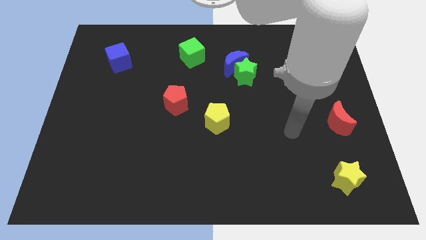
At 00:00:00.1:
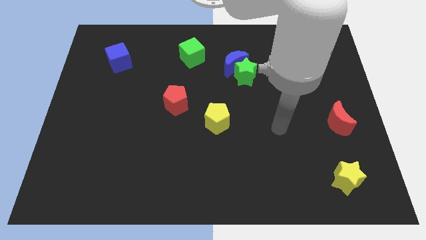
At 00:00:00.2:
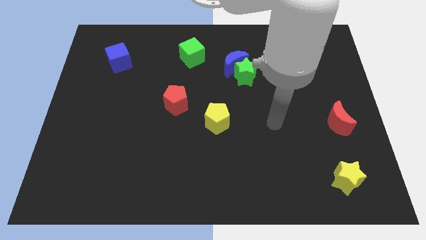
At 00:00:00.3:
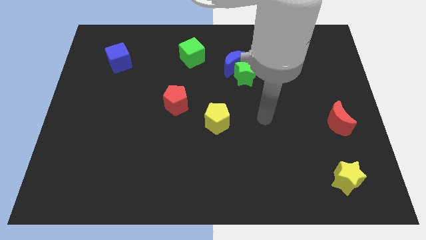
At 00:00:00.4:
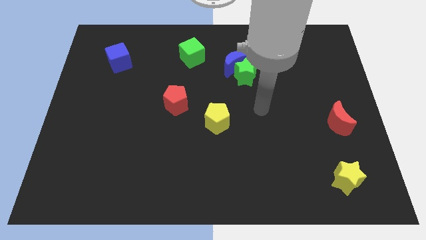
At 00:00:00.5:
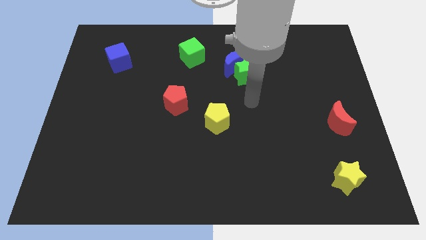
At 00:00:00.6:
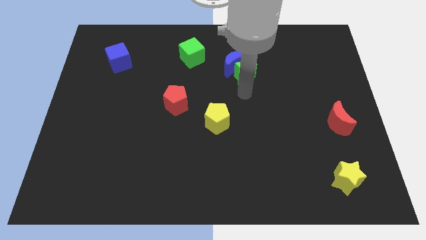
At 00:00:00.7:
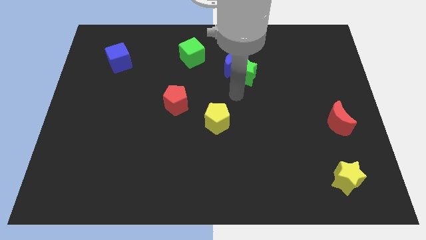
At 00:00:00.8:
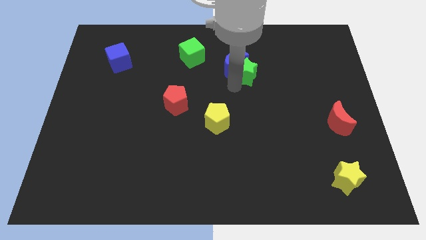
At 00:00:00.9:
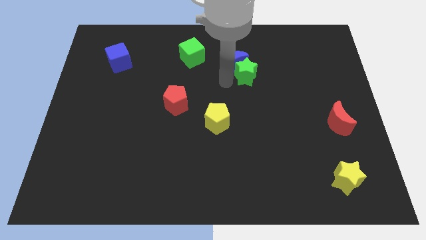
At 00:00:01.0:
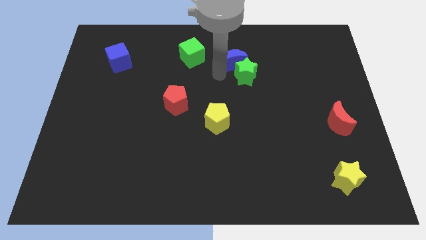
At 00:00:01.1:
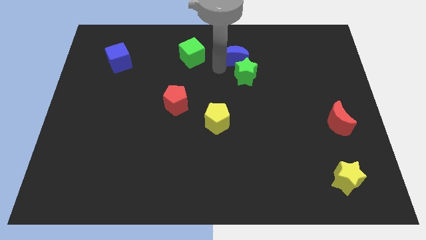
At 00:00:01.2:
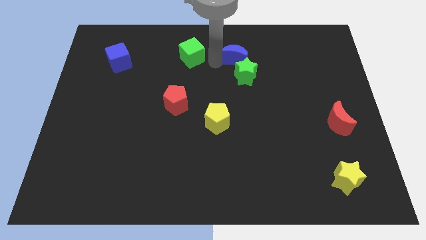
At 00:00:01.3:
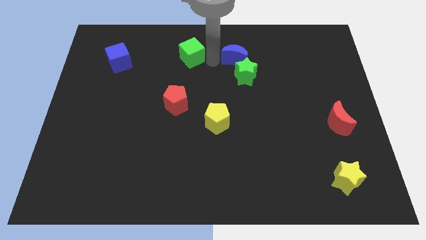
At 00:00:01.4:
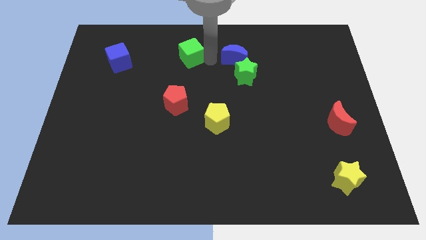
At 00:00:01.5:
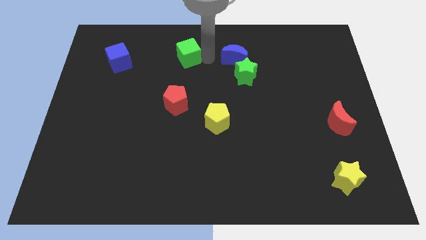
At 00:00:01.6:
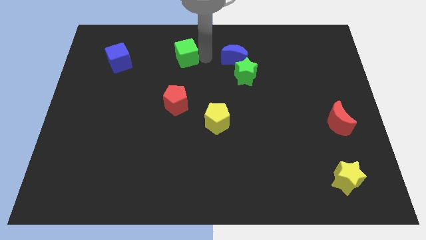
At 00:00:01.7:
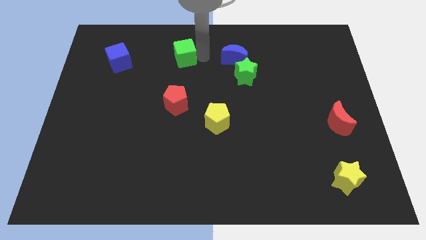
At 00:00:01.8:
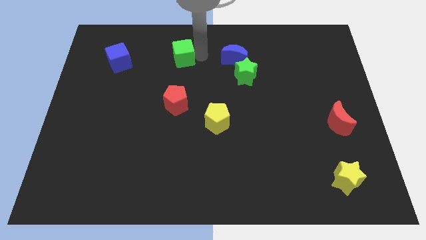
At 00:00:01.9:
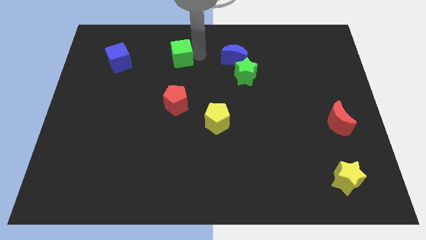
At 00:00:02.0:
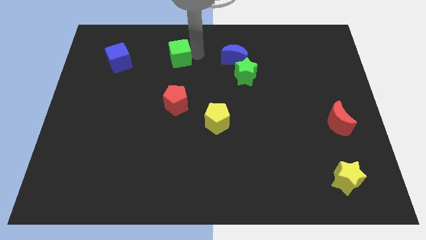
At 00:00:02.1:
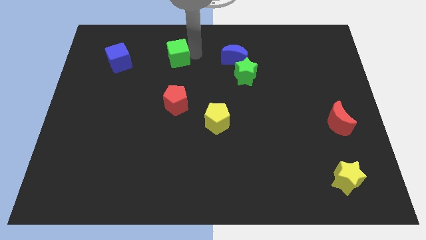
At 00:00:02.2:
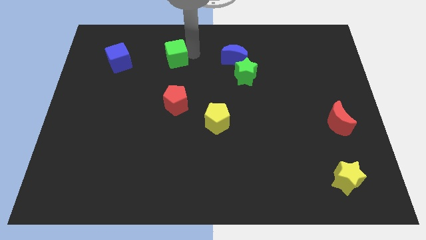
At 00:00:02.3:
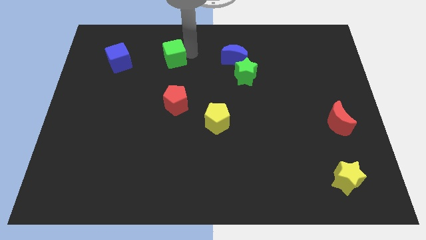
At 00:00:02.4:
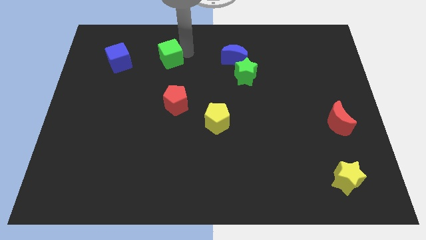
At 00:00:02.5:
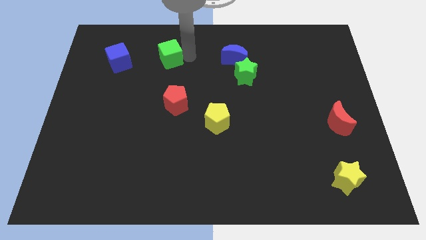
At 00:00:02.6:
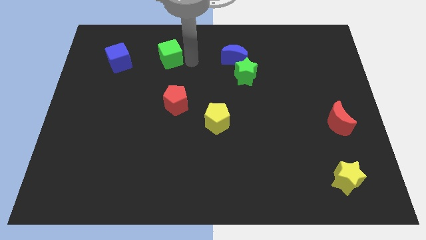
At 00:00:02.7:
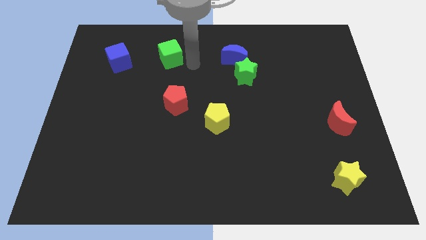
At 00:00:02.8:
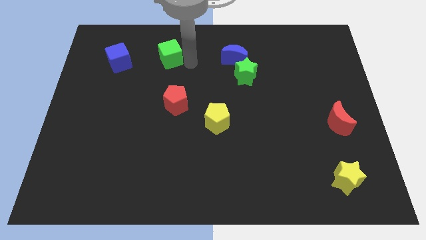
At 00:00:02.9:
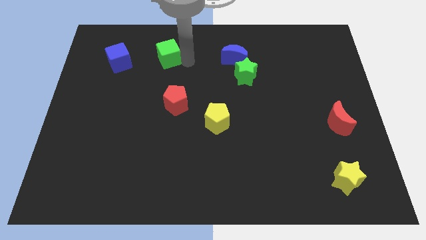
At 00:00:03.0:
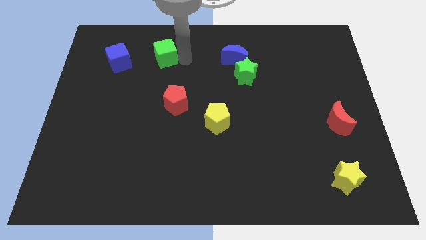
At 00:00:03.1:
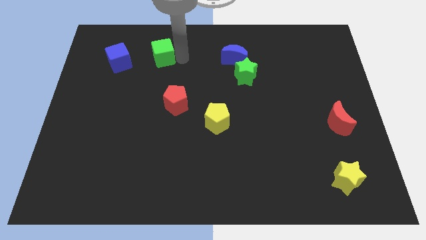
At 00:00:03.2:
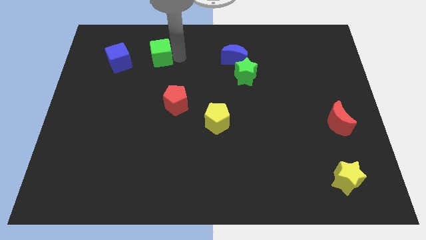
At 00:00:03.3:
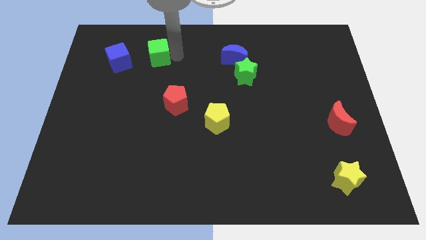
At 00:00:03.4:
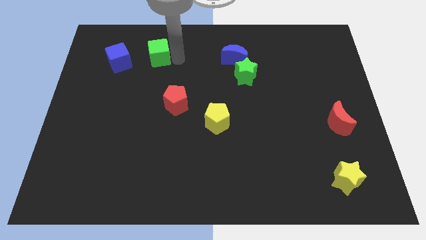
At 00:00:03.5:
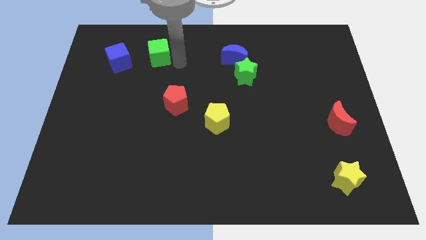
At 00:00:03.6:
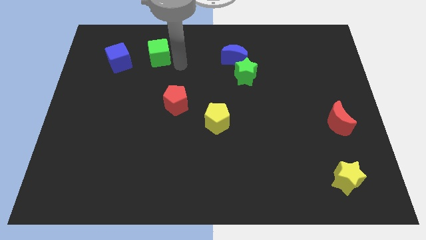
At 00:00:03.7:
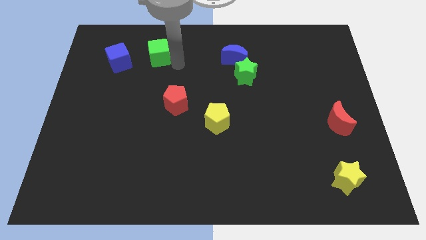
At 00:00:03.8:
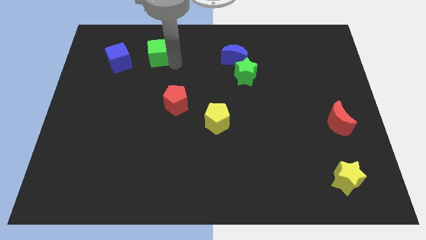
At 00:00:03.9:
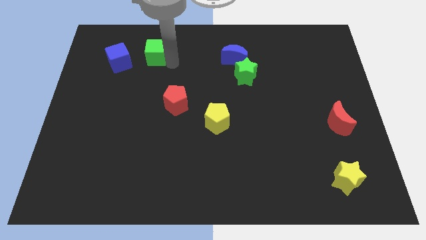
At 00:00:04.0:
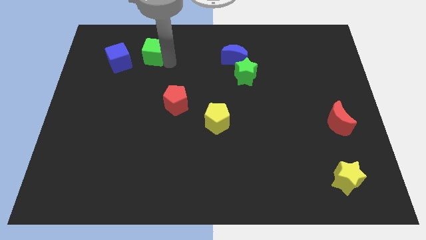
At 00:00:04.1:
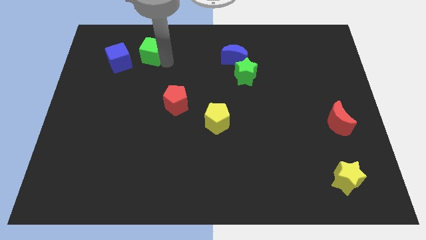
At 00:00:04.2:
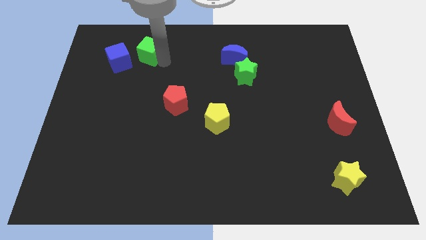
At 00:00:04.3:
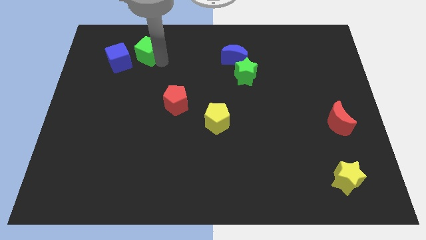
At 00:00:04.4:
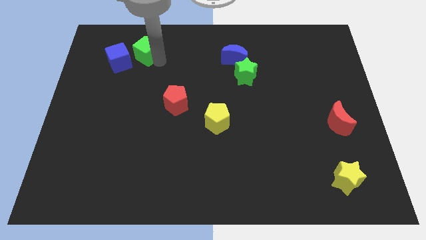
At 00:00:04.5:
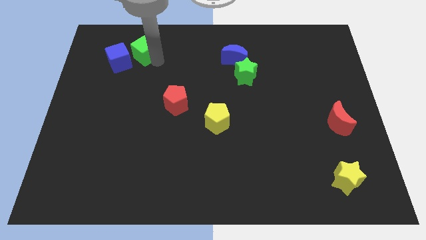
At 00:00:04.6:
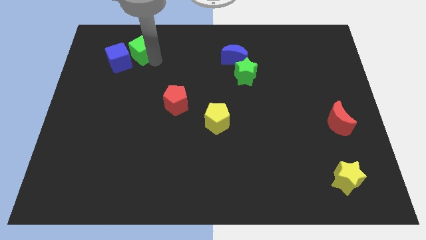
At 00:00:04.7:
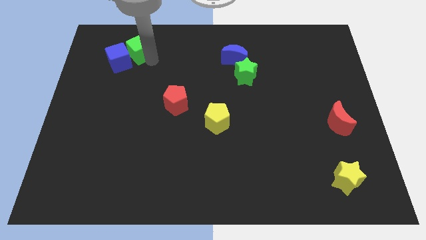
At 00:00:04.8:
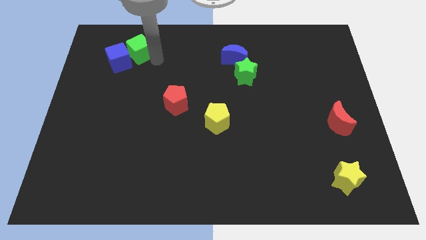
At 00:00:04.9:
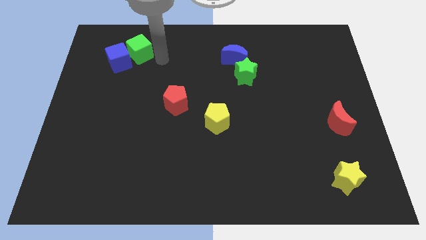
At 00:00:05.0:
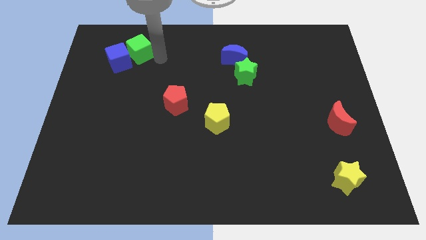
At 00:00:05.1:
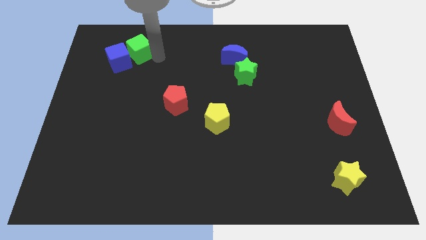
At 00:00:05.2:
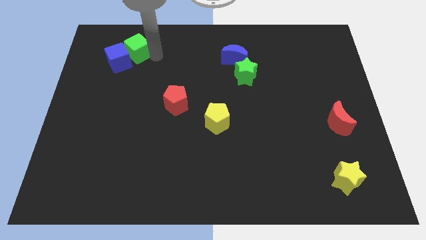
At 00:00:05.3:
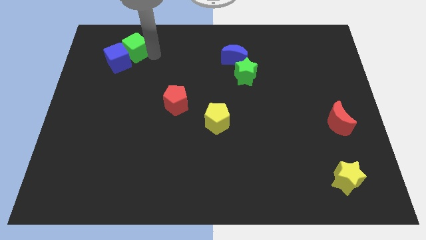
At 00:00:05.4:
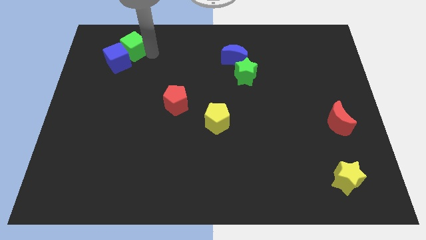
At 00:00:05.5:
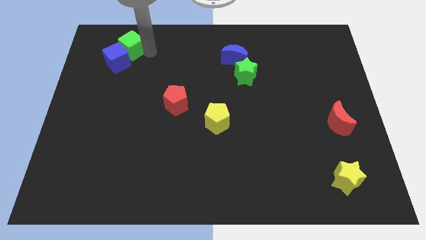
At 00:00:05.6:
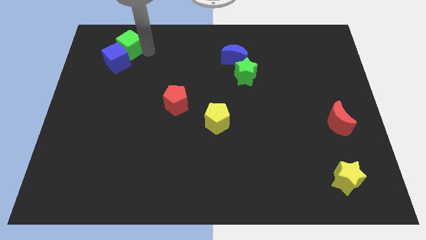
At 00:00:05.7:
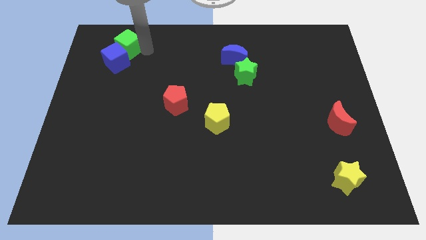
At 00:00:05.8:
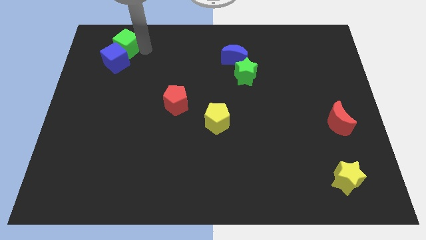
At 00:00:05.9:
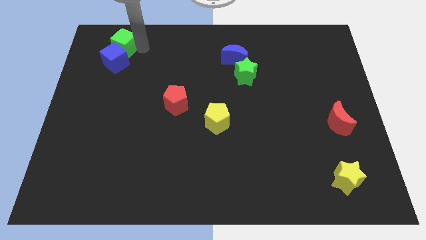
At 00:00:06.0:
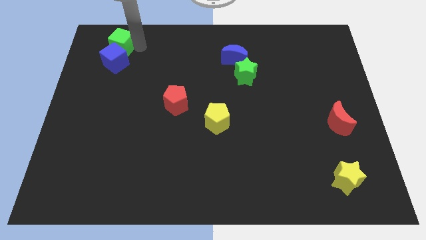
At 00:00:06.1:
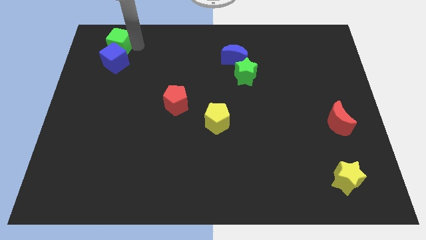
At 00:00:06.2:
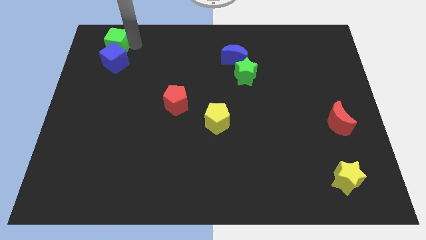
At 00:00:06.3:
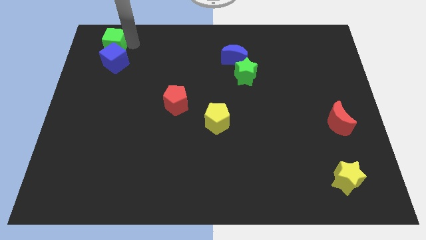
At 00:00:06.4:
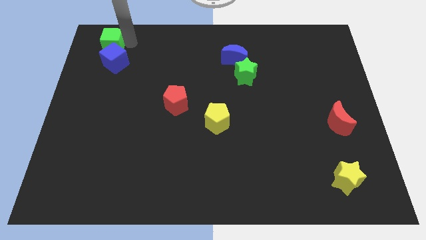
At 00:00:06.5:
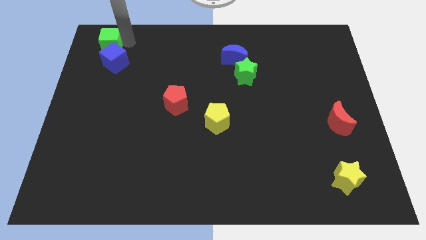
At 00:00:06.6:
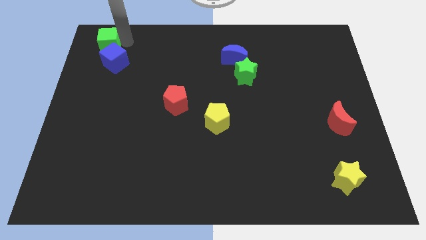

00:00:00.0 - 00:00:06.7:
slide the green cube to the top left

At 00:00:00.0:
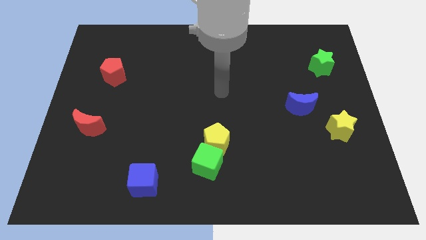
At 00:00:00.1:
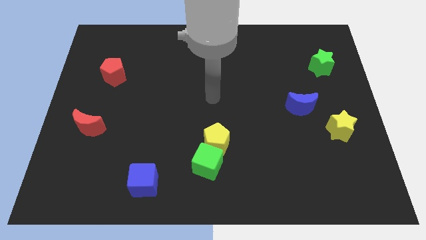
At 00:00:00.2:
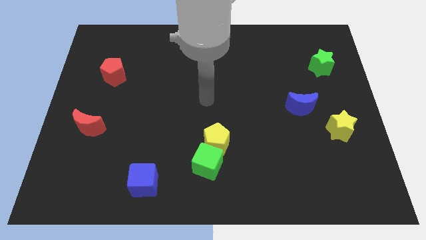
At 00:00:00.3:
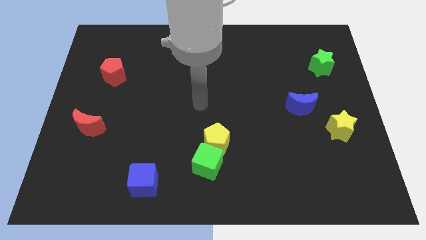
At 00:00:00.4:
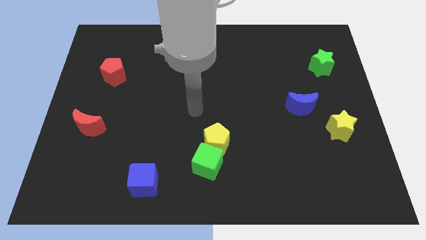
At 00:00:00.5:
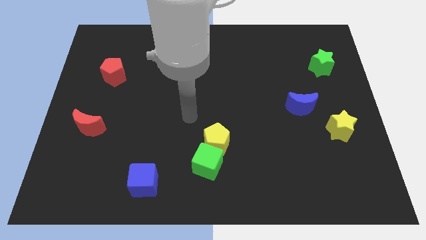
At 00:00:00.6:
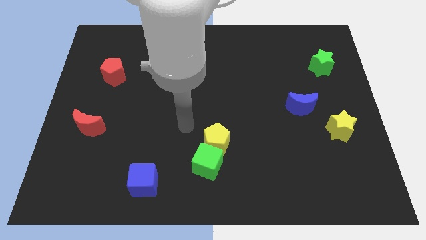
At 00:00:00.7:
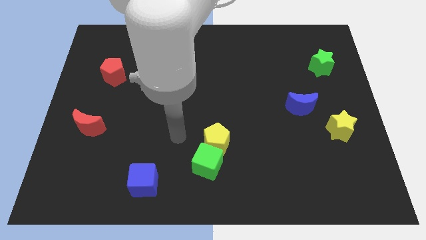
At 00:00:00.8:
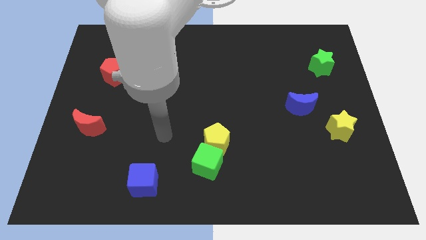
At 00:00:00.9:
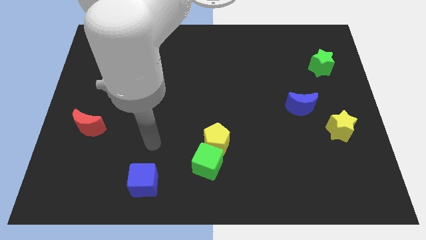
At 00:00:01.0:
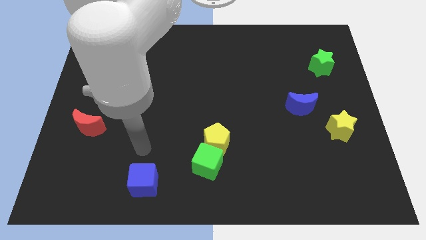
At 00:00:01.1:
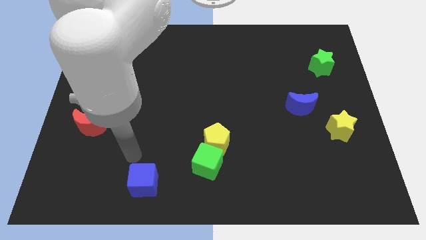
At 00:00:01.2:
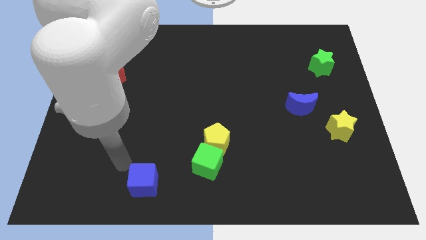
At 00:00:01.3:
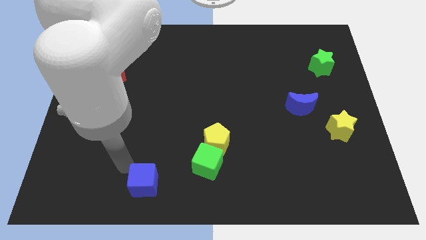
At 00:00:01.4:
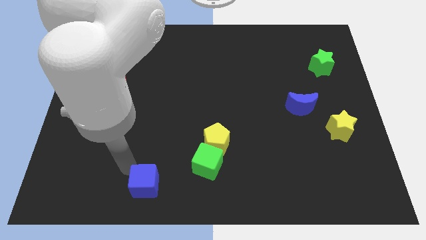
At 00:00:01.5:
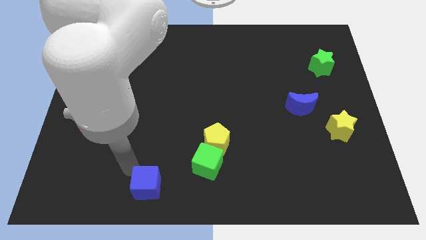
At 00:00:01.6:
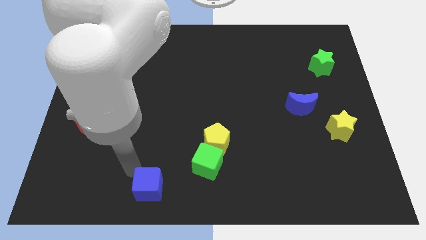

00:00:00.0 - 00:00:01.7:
put the blue cube to the bottom
